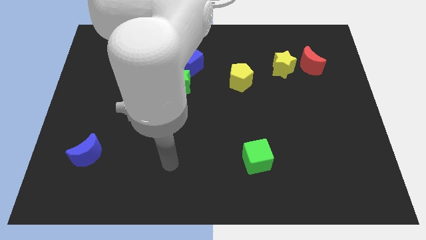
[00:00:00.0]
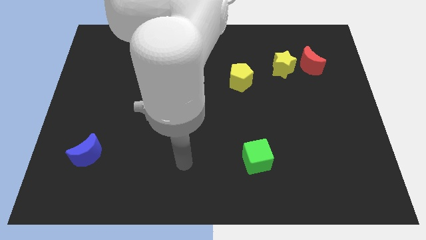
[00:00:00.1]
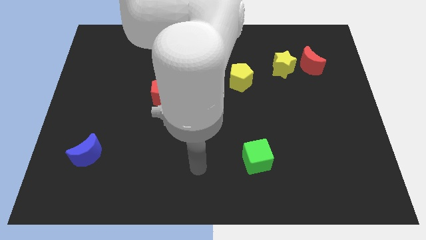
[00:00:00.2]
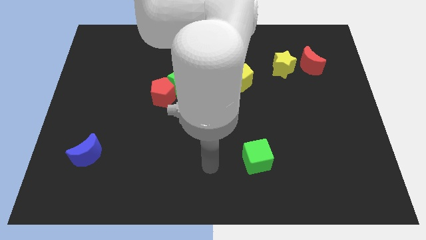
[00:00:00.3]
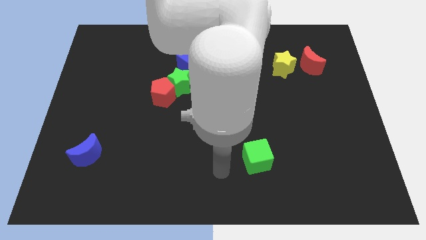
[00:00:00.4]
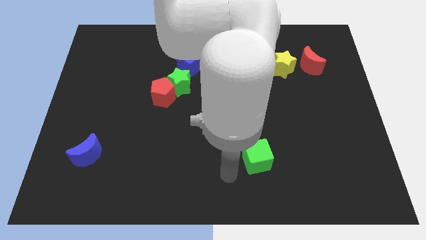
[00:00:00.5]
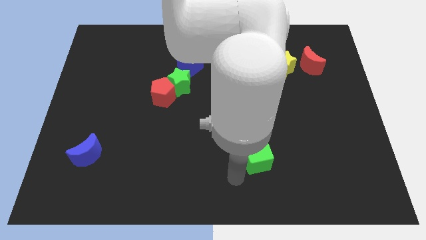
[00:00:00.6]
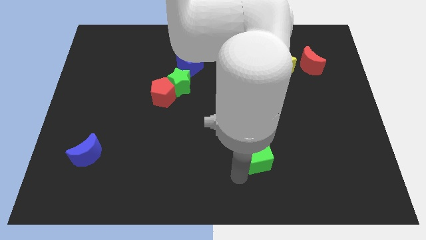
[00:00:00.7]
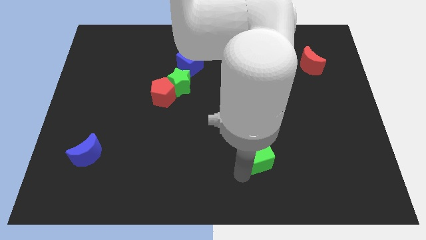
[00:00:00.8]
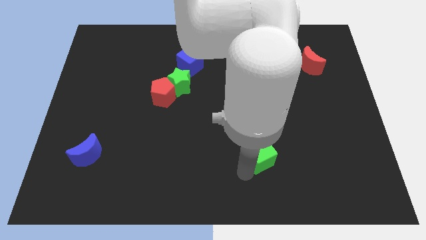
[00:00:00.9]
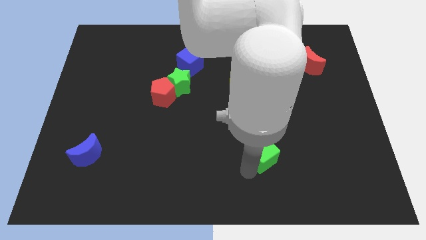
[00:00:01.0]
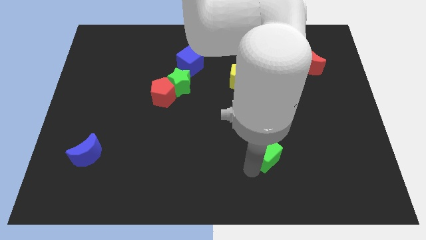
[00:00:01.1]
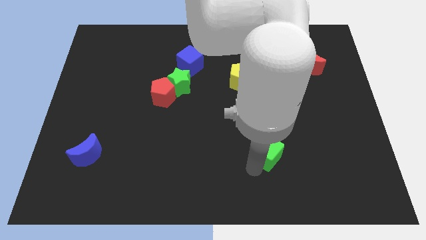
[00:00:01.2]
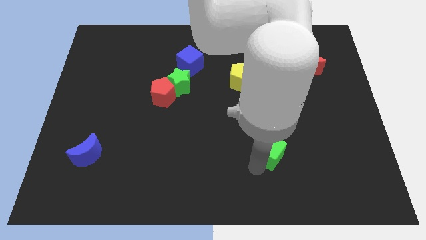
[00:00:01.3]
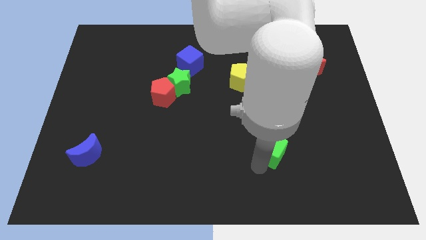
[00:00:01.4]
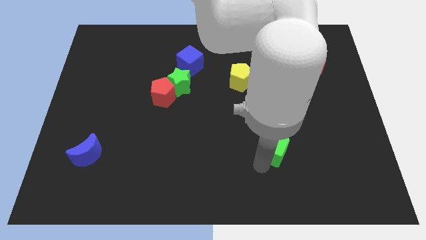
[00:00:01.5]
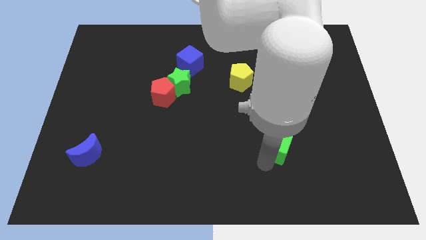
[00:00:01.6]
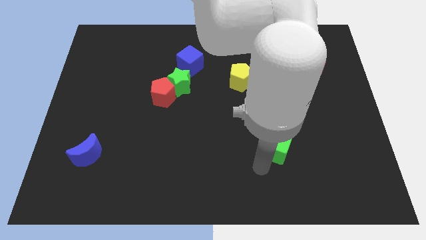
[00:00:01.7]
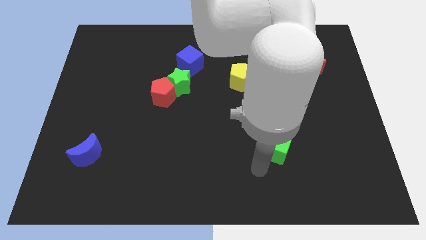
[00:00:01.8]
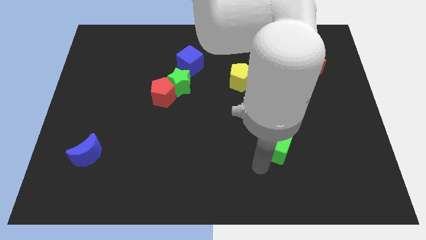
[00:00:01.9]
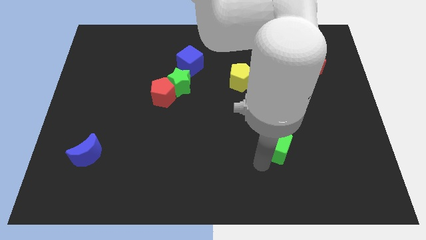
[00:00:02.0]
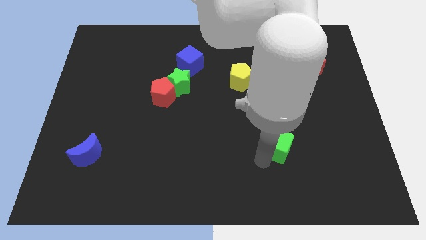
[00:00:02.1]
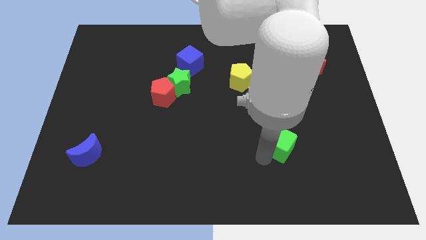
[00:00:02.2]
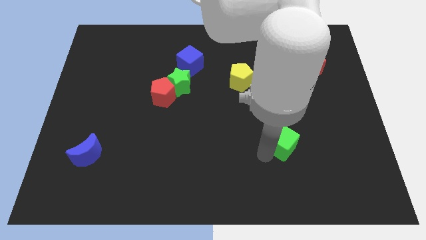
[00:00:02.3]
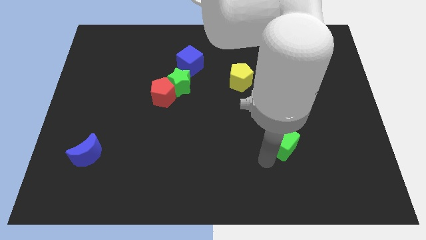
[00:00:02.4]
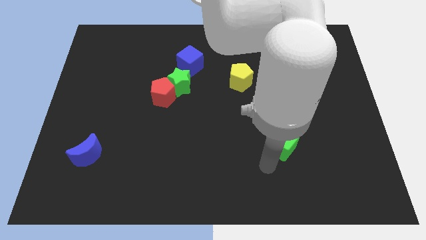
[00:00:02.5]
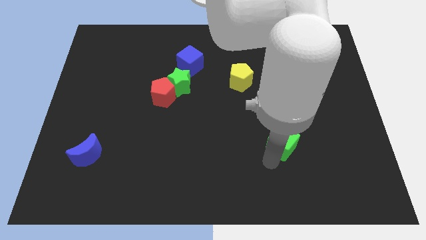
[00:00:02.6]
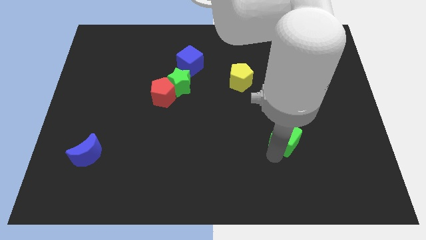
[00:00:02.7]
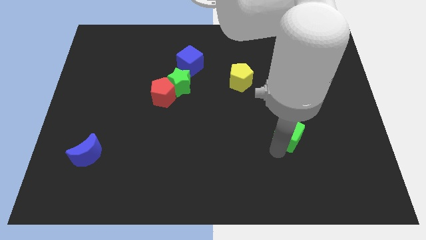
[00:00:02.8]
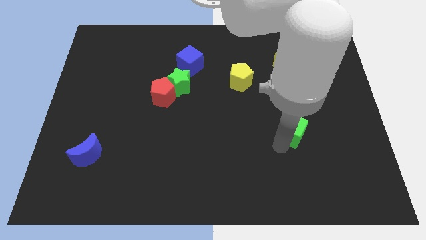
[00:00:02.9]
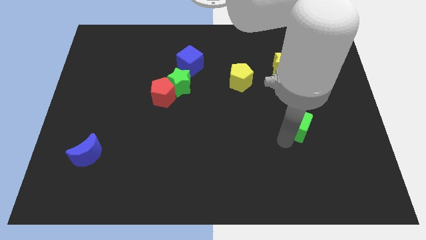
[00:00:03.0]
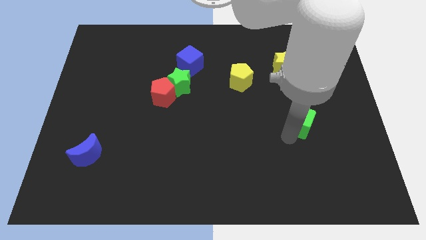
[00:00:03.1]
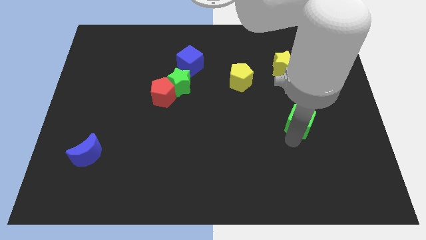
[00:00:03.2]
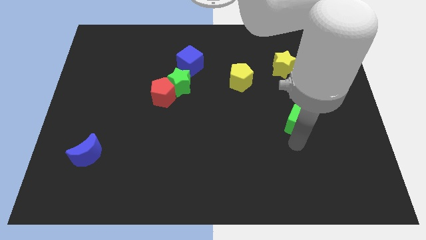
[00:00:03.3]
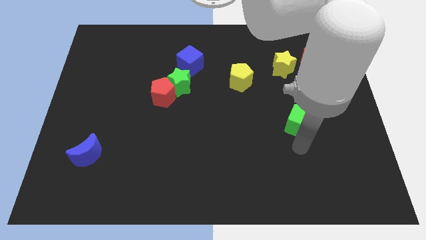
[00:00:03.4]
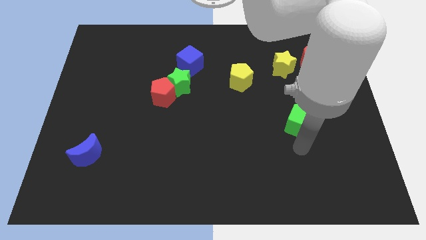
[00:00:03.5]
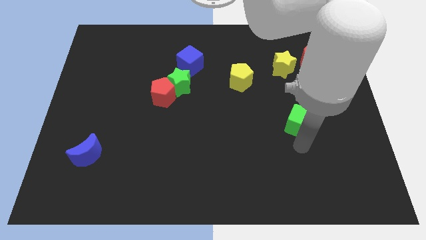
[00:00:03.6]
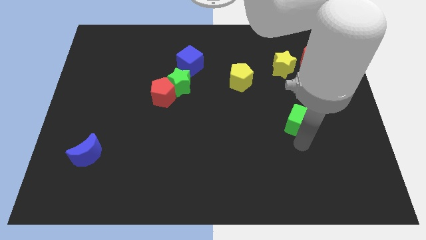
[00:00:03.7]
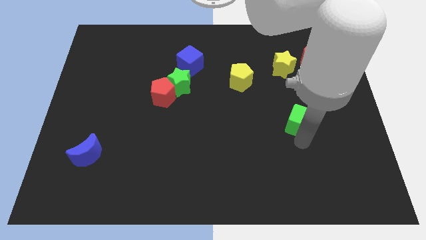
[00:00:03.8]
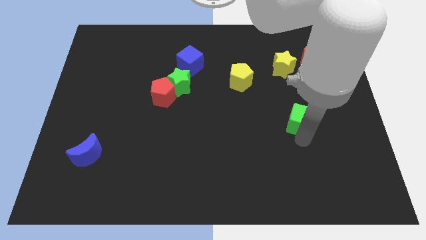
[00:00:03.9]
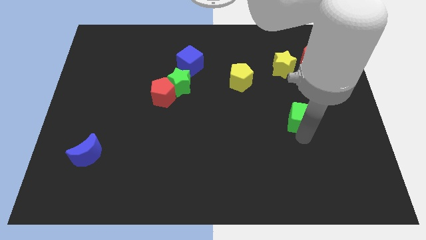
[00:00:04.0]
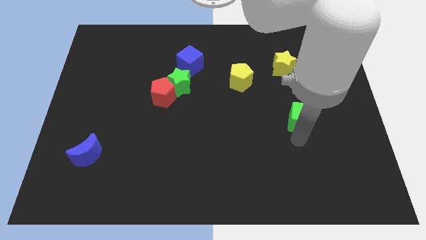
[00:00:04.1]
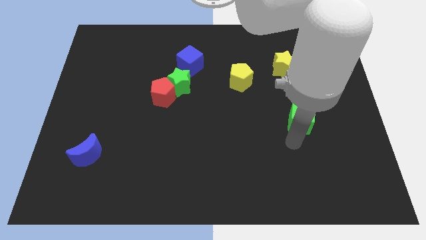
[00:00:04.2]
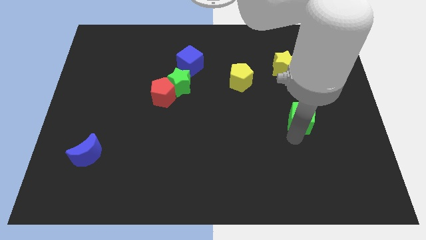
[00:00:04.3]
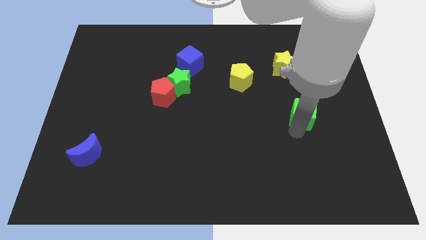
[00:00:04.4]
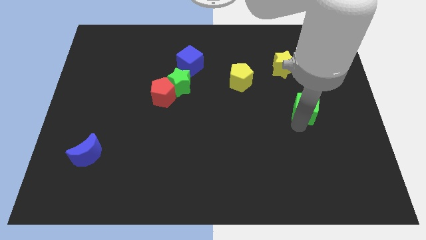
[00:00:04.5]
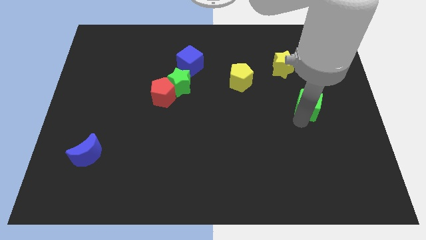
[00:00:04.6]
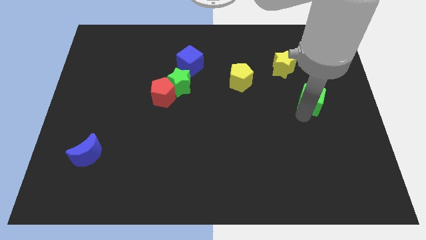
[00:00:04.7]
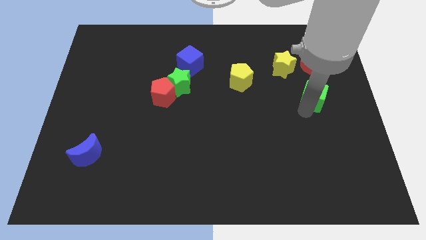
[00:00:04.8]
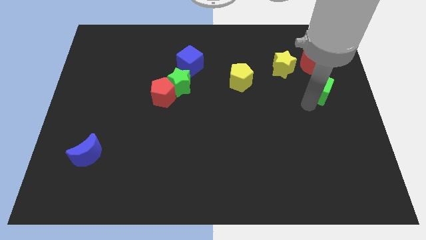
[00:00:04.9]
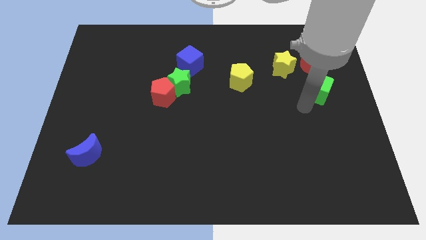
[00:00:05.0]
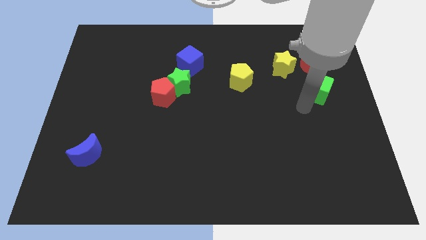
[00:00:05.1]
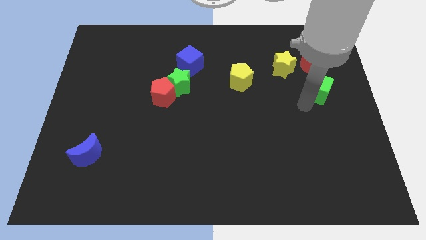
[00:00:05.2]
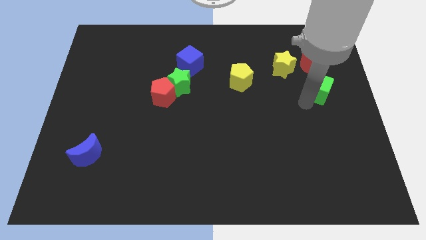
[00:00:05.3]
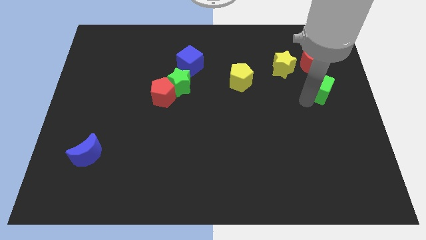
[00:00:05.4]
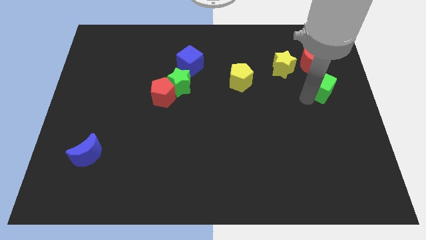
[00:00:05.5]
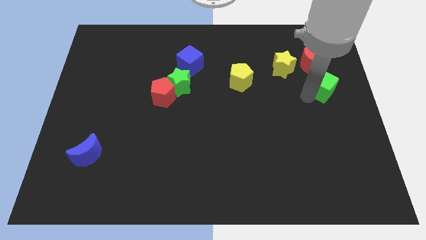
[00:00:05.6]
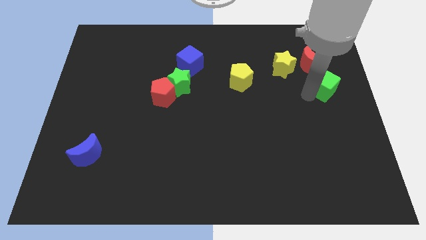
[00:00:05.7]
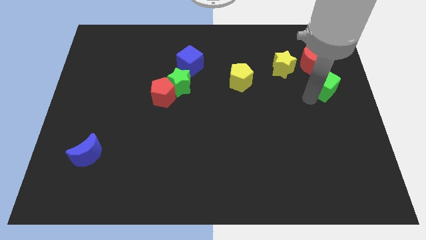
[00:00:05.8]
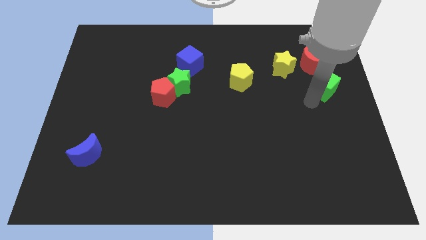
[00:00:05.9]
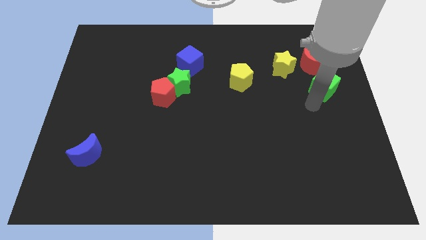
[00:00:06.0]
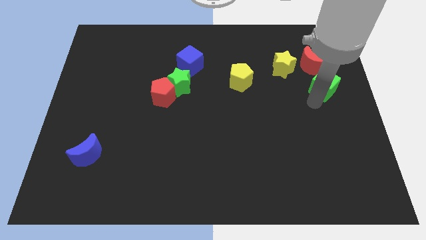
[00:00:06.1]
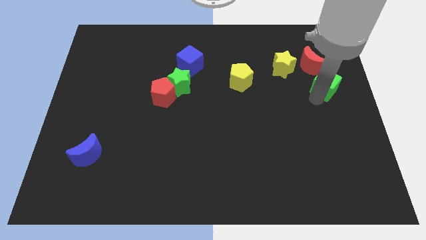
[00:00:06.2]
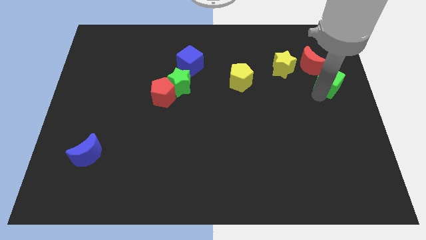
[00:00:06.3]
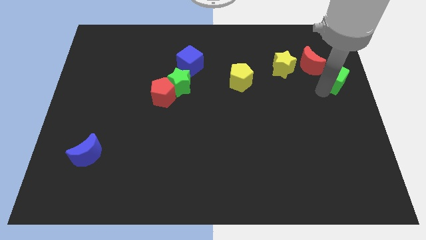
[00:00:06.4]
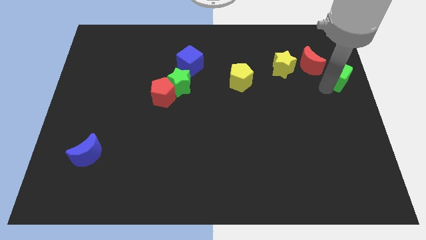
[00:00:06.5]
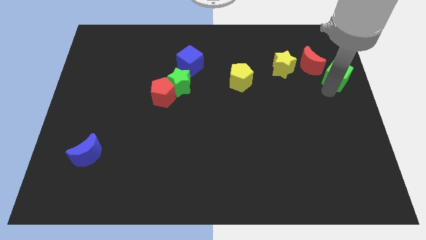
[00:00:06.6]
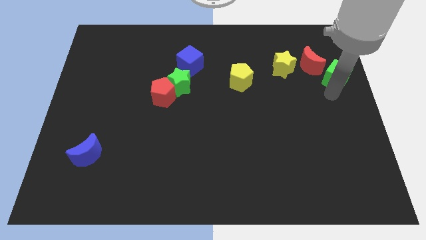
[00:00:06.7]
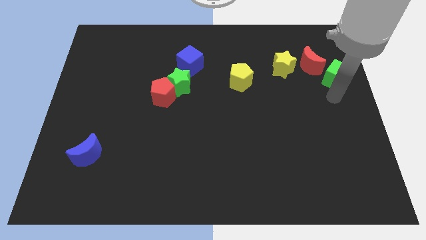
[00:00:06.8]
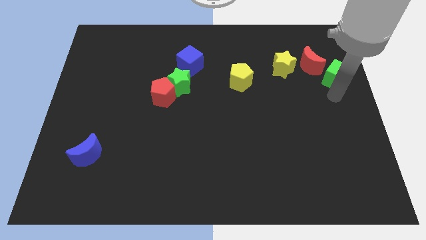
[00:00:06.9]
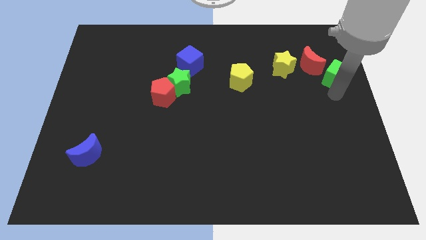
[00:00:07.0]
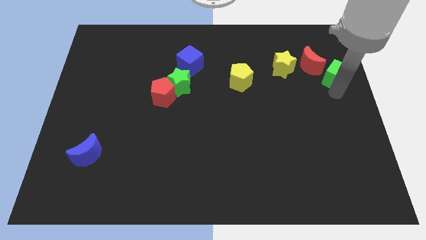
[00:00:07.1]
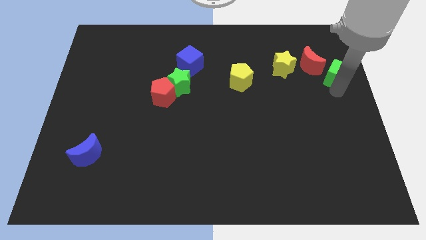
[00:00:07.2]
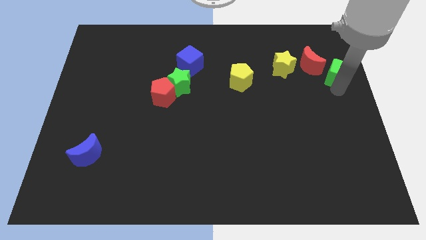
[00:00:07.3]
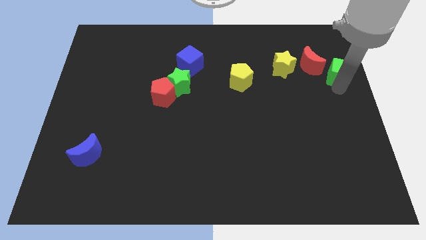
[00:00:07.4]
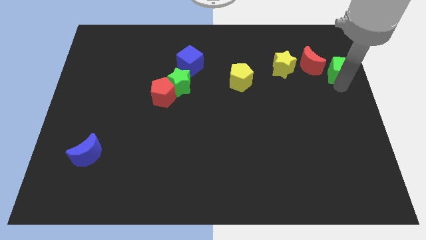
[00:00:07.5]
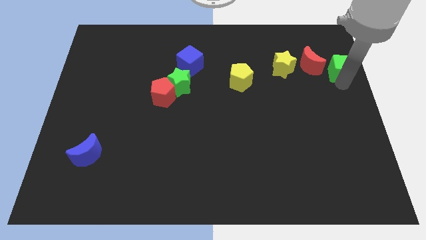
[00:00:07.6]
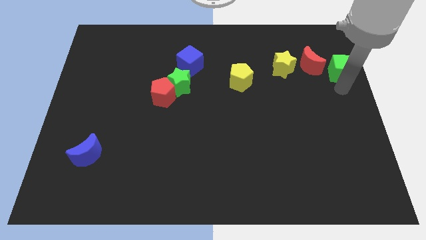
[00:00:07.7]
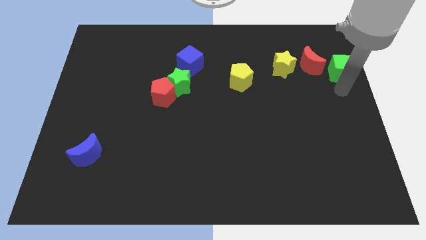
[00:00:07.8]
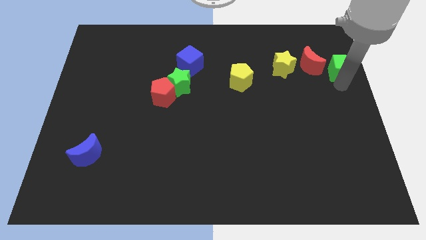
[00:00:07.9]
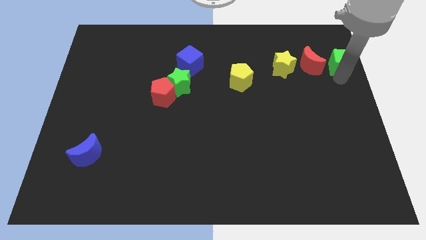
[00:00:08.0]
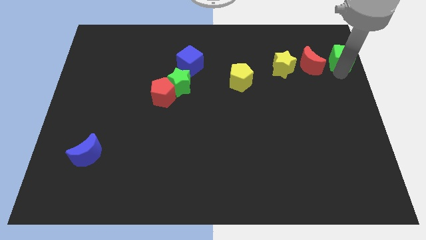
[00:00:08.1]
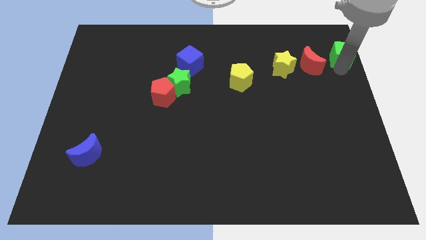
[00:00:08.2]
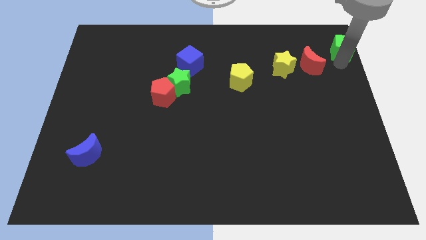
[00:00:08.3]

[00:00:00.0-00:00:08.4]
slide the green cube to the upper right corner
